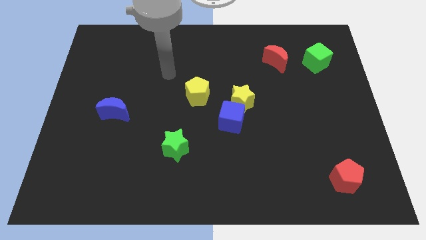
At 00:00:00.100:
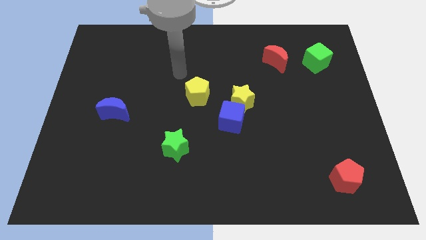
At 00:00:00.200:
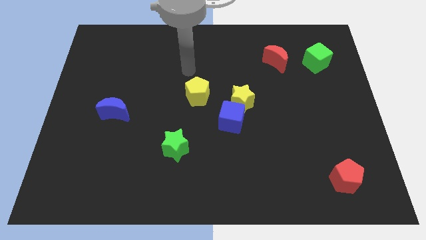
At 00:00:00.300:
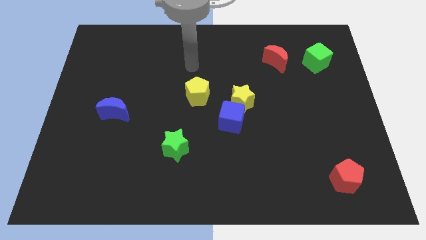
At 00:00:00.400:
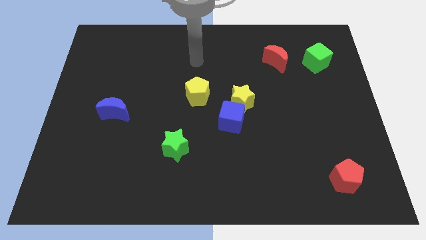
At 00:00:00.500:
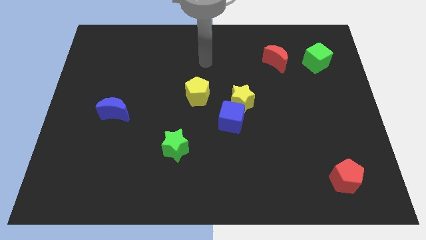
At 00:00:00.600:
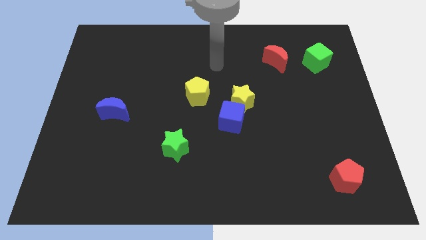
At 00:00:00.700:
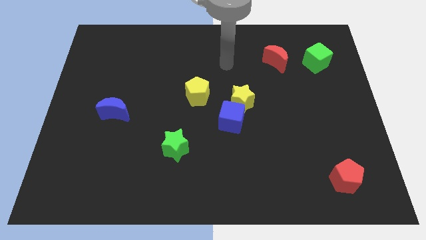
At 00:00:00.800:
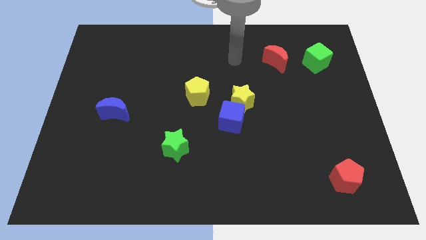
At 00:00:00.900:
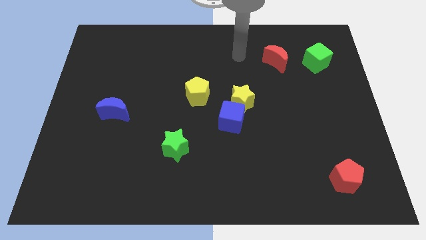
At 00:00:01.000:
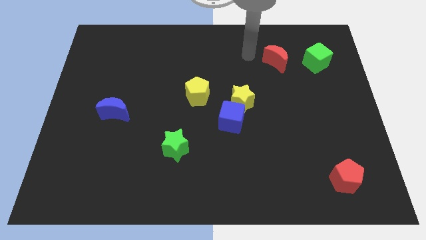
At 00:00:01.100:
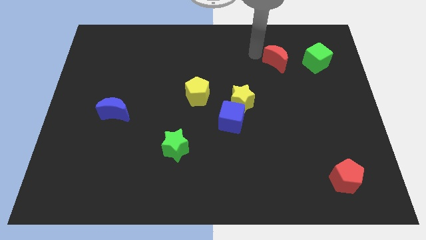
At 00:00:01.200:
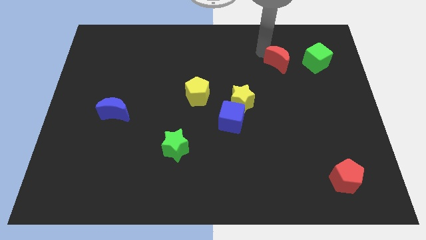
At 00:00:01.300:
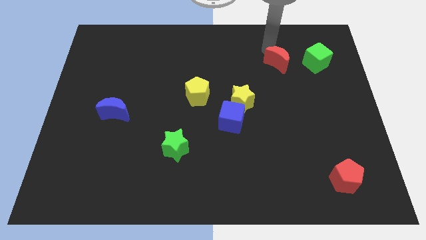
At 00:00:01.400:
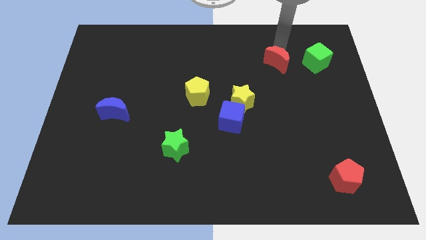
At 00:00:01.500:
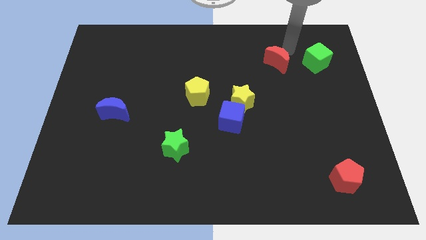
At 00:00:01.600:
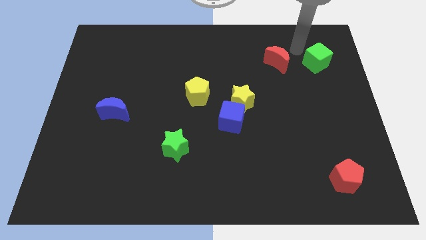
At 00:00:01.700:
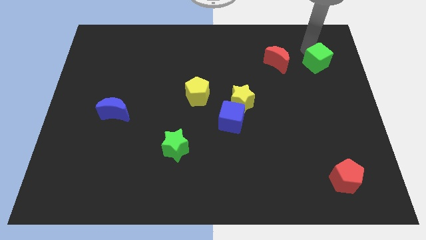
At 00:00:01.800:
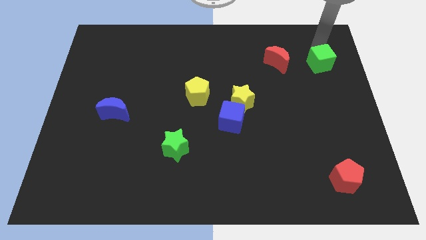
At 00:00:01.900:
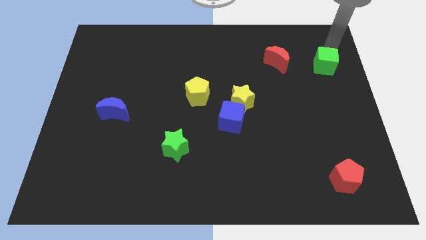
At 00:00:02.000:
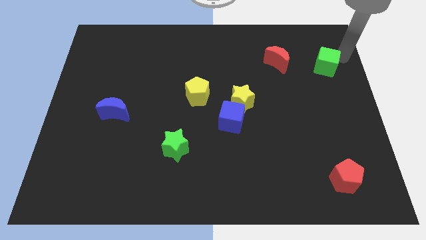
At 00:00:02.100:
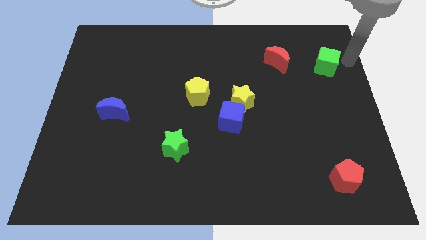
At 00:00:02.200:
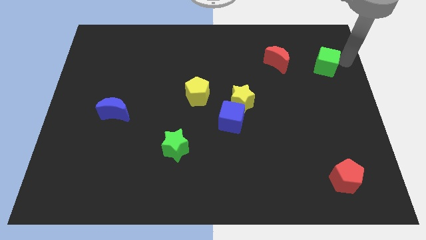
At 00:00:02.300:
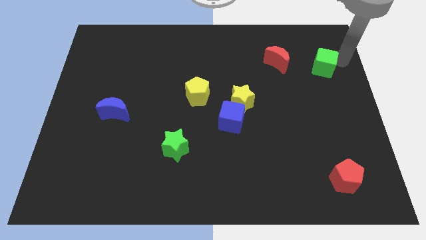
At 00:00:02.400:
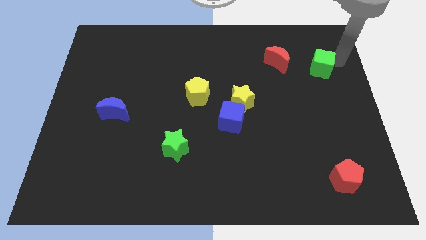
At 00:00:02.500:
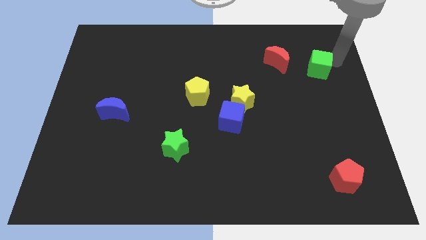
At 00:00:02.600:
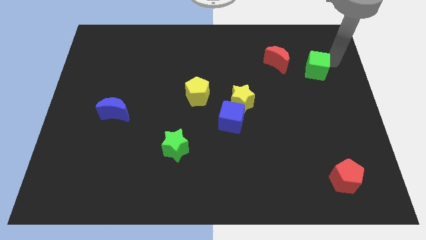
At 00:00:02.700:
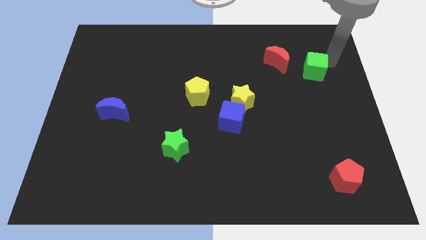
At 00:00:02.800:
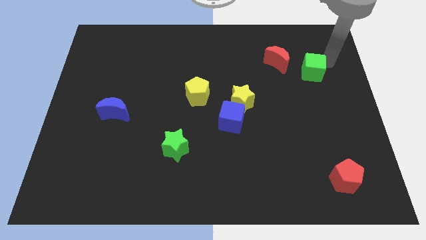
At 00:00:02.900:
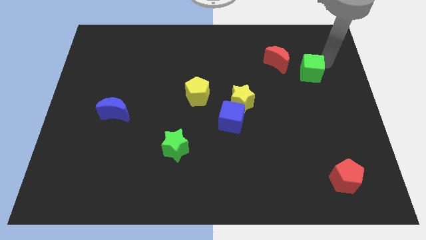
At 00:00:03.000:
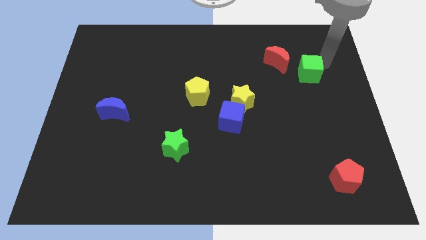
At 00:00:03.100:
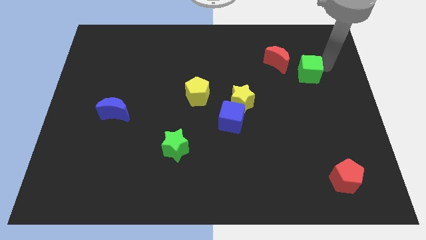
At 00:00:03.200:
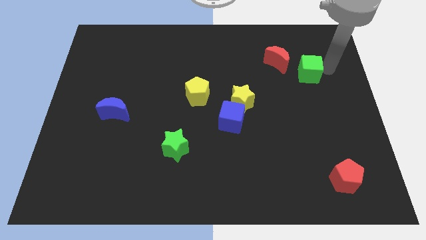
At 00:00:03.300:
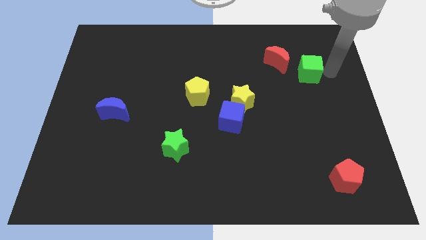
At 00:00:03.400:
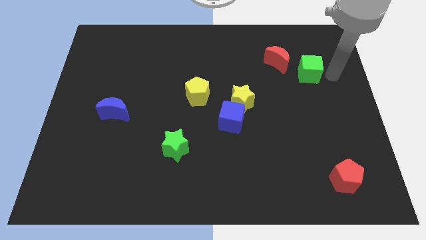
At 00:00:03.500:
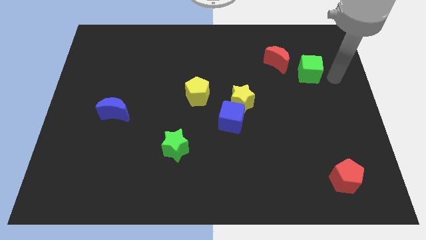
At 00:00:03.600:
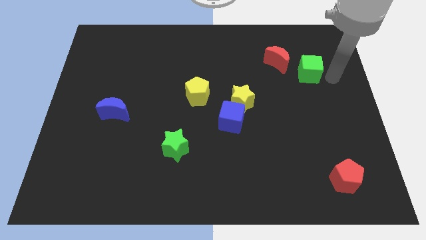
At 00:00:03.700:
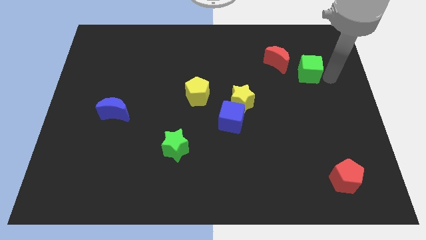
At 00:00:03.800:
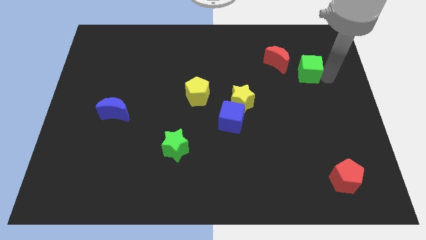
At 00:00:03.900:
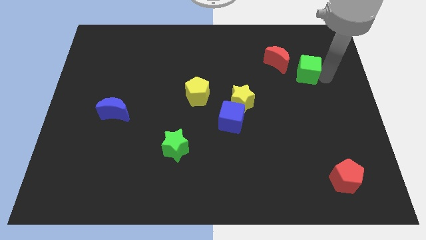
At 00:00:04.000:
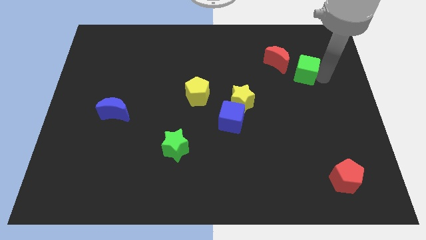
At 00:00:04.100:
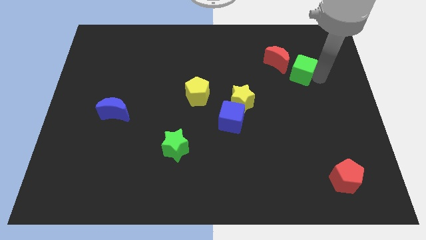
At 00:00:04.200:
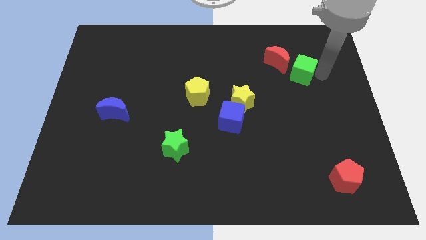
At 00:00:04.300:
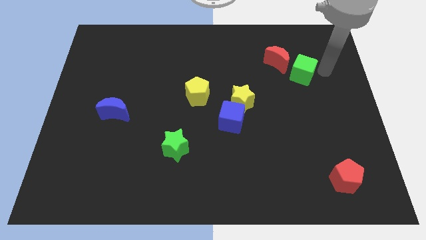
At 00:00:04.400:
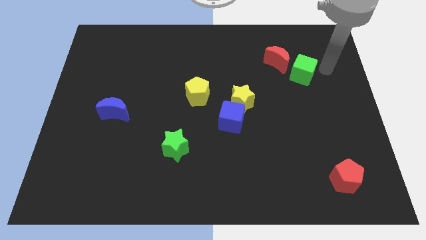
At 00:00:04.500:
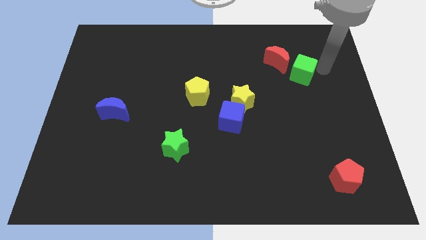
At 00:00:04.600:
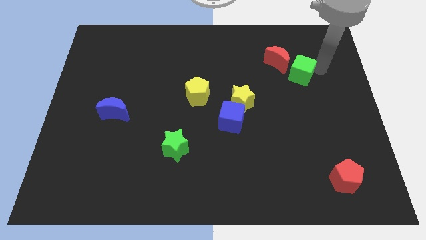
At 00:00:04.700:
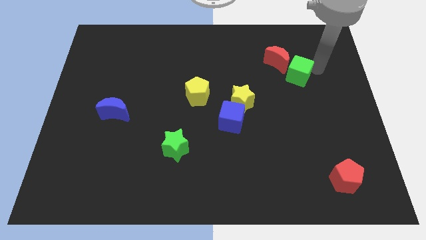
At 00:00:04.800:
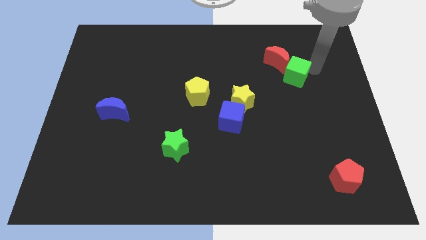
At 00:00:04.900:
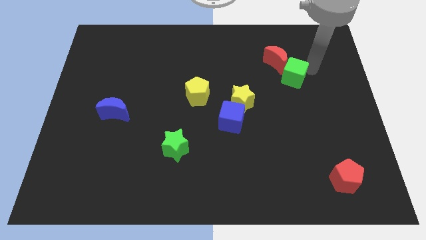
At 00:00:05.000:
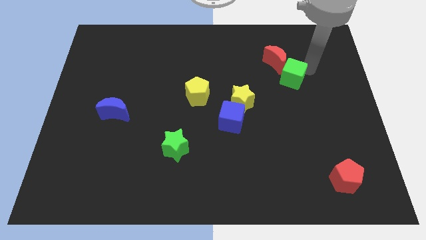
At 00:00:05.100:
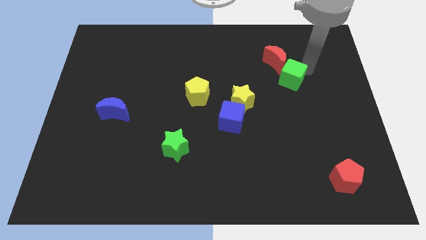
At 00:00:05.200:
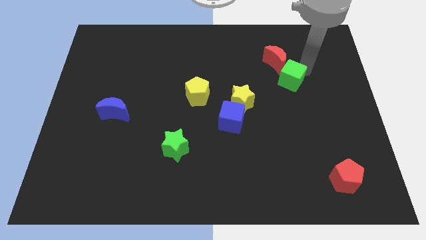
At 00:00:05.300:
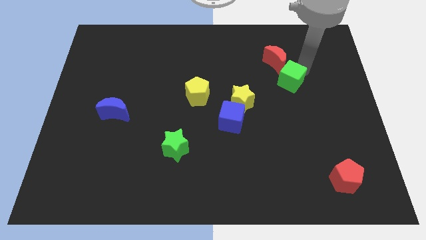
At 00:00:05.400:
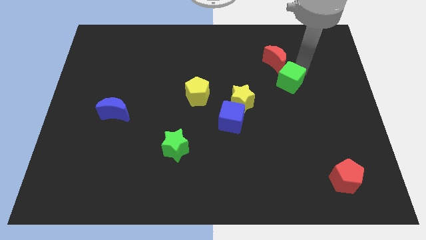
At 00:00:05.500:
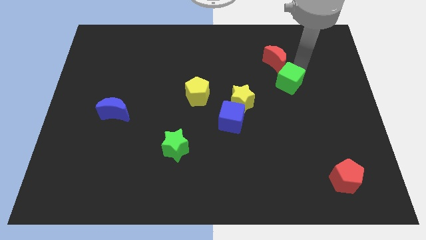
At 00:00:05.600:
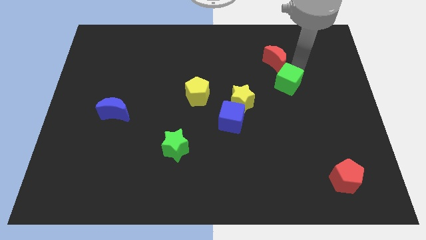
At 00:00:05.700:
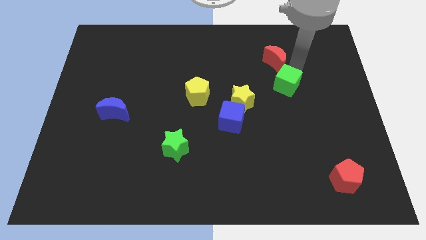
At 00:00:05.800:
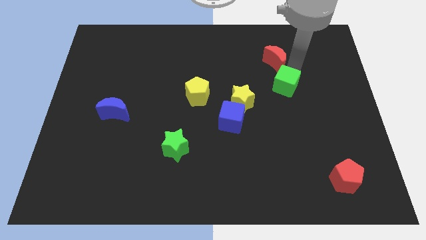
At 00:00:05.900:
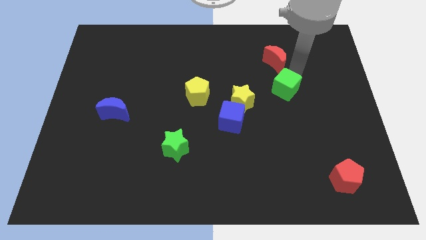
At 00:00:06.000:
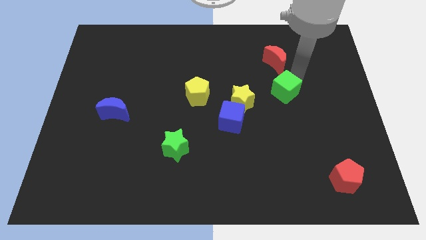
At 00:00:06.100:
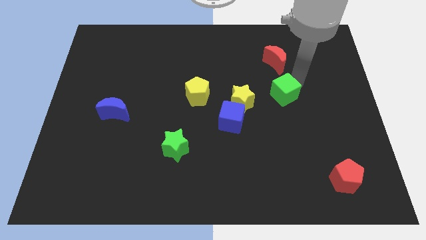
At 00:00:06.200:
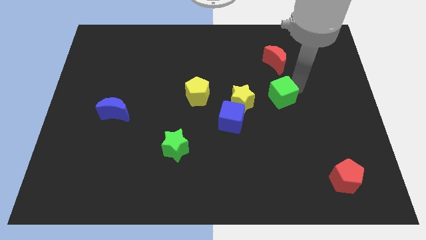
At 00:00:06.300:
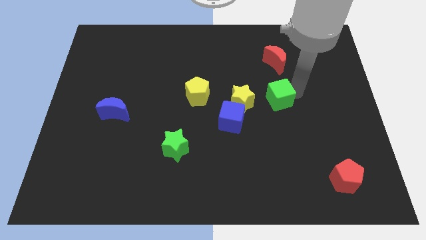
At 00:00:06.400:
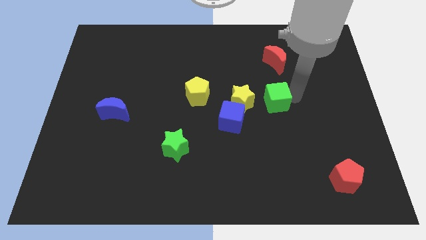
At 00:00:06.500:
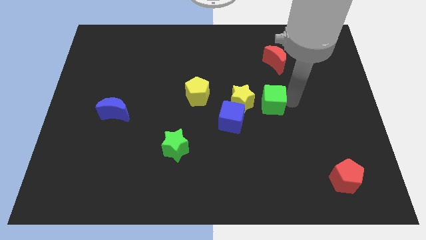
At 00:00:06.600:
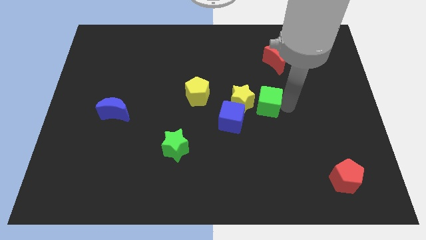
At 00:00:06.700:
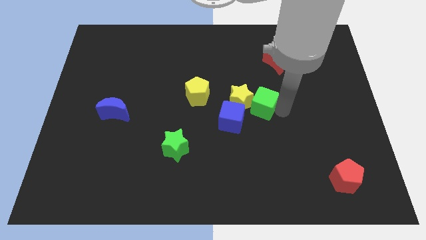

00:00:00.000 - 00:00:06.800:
push the green cube to the center of the board
